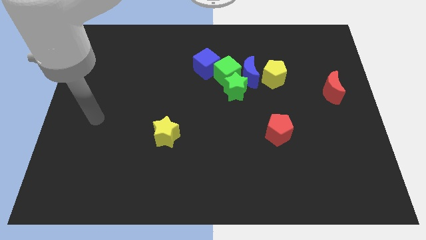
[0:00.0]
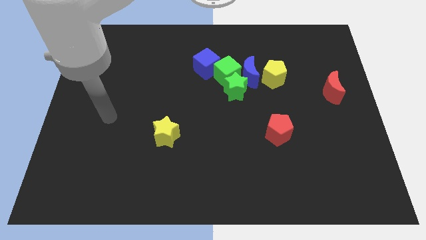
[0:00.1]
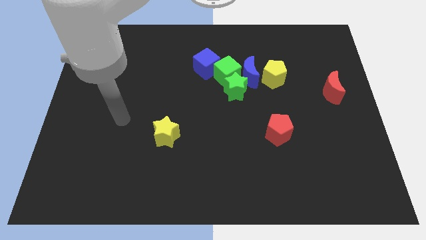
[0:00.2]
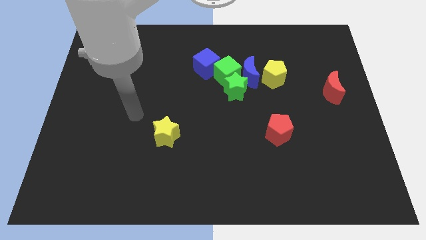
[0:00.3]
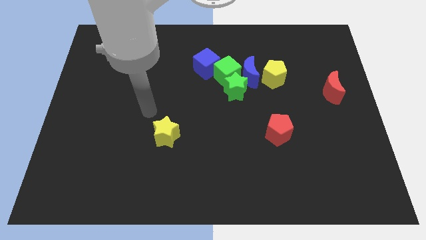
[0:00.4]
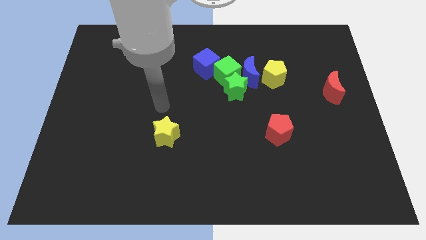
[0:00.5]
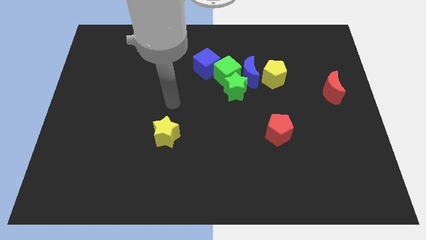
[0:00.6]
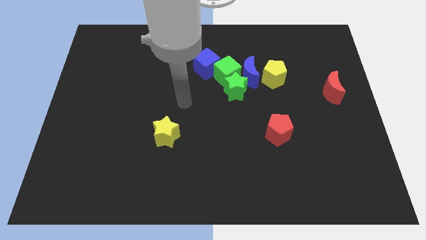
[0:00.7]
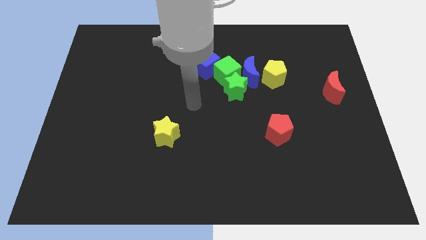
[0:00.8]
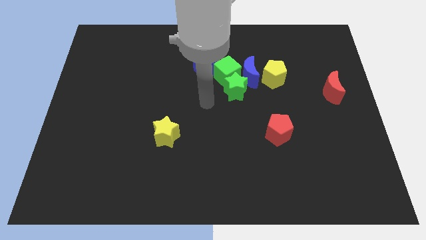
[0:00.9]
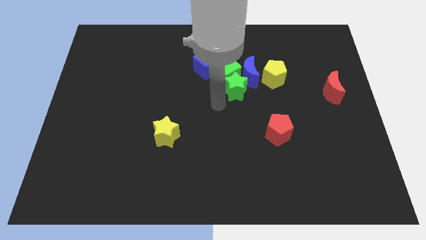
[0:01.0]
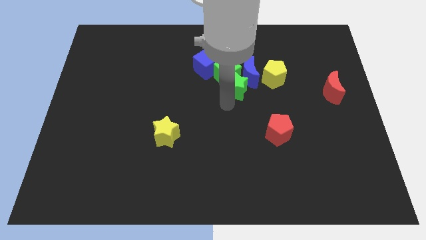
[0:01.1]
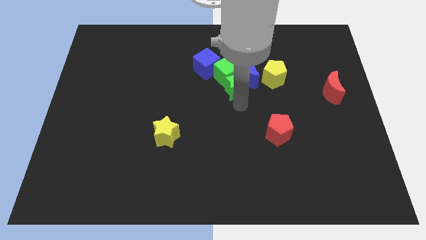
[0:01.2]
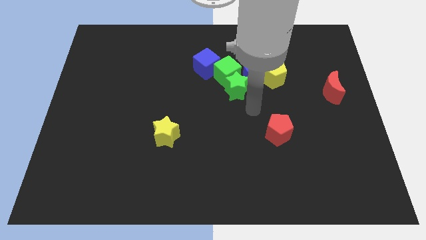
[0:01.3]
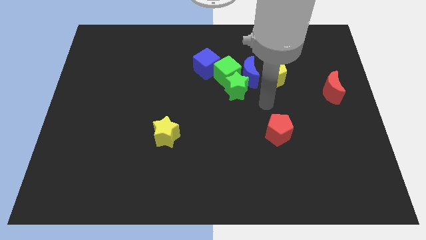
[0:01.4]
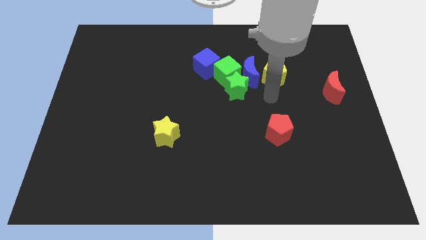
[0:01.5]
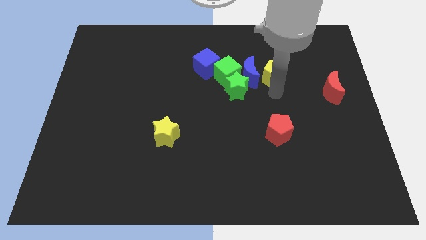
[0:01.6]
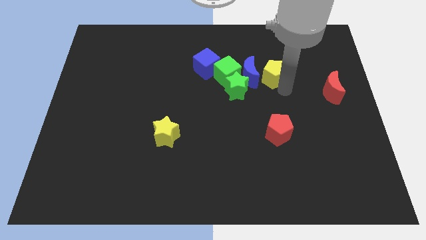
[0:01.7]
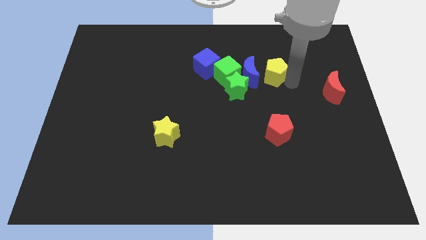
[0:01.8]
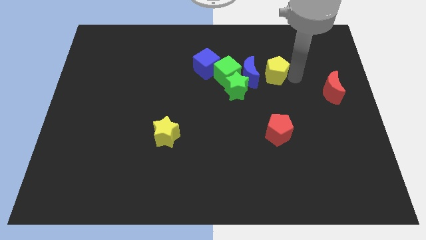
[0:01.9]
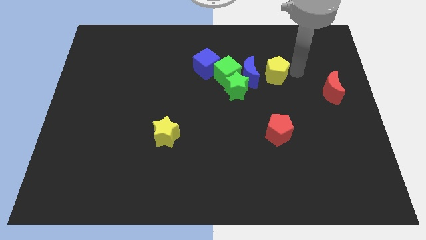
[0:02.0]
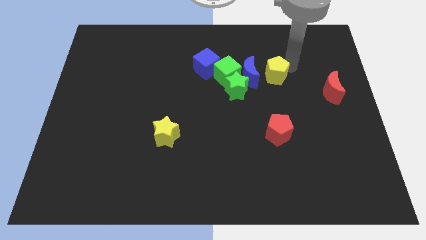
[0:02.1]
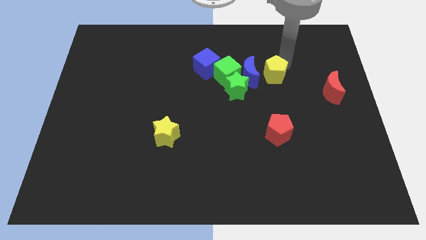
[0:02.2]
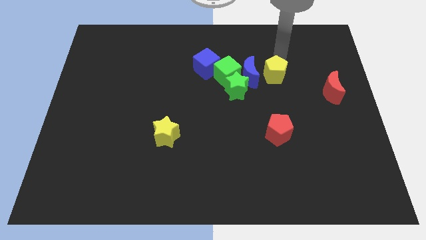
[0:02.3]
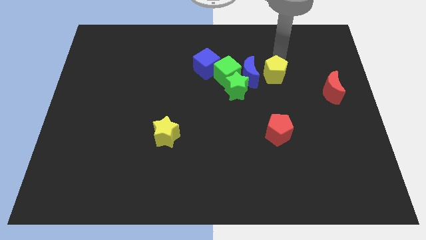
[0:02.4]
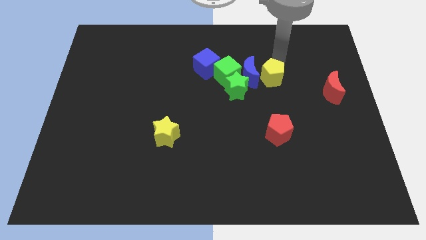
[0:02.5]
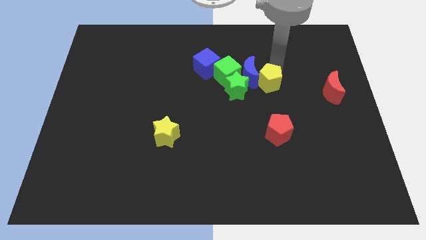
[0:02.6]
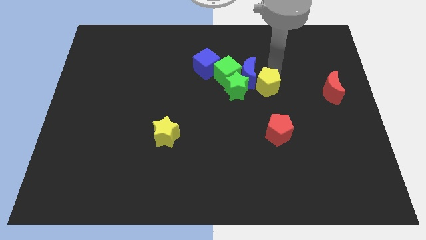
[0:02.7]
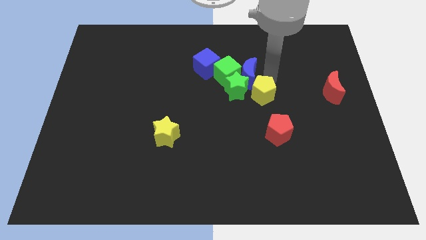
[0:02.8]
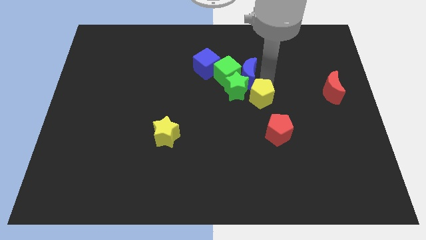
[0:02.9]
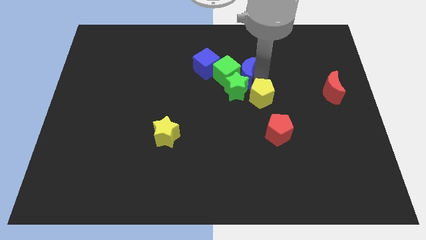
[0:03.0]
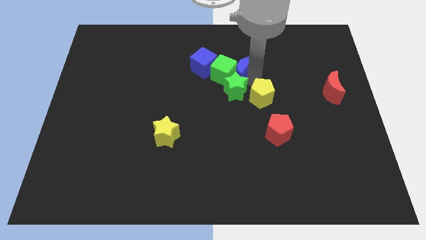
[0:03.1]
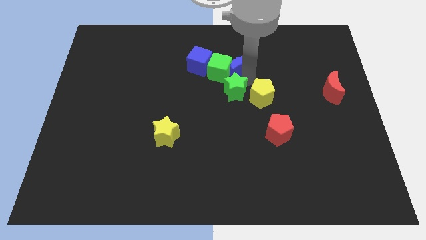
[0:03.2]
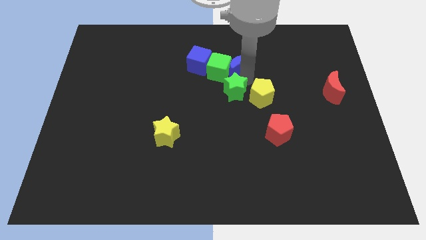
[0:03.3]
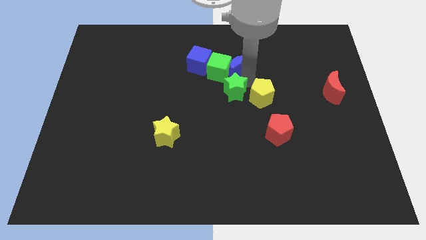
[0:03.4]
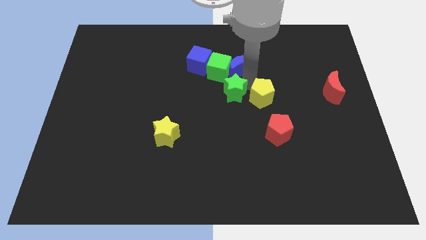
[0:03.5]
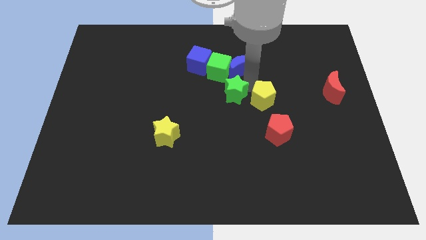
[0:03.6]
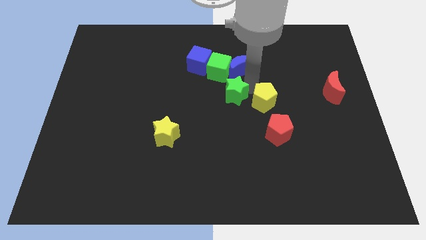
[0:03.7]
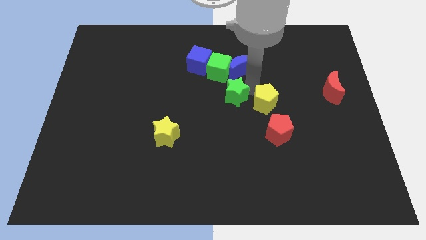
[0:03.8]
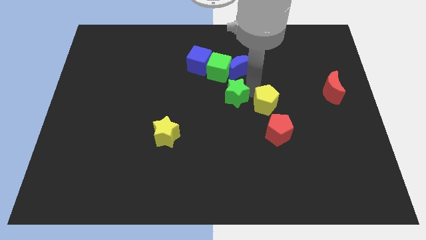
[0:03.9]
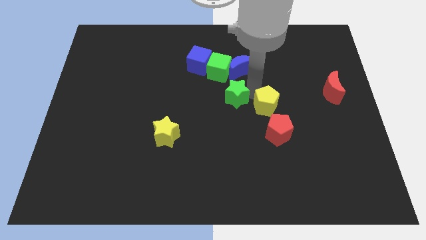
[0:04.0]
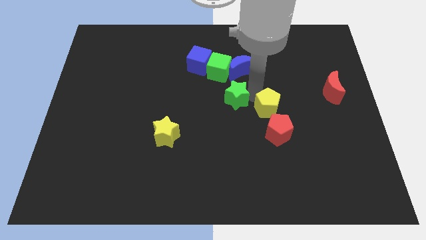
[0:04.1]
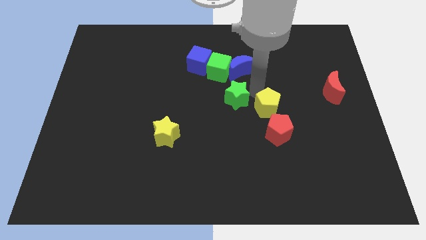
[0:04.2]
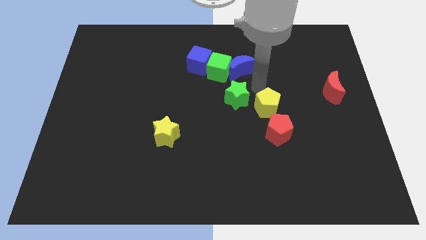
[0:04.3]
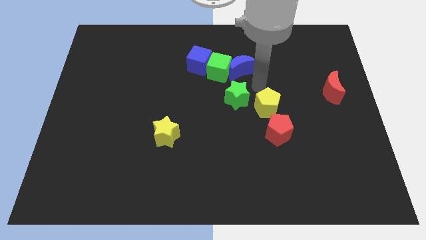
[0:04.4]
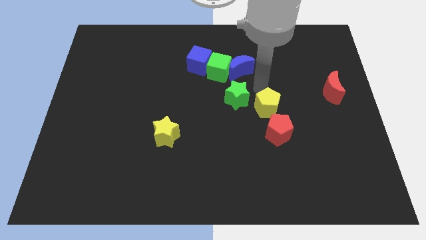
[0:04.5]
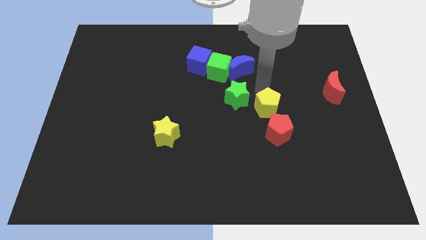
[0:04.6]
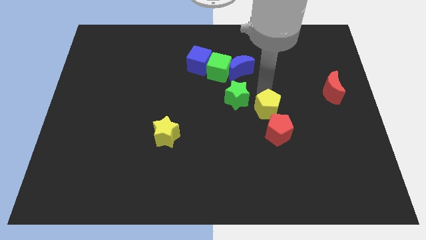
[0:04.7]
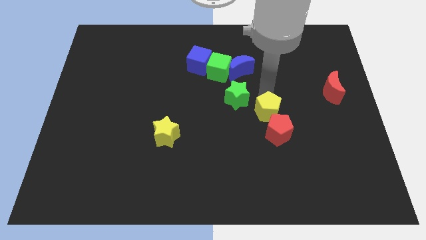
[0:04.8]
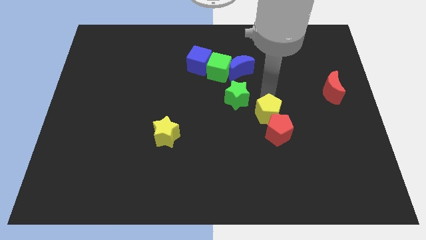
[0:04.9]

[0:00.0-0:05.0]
slide the yellow pentagon towards the red pentagon

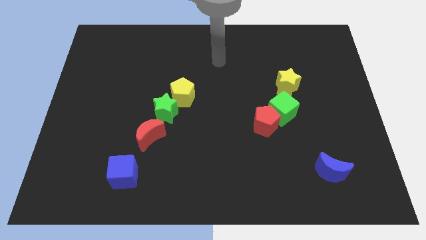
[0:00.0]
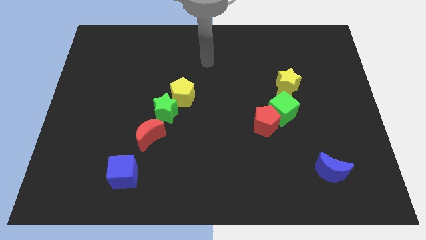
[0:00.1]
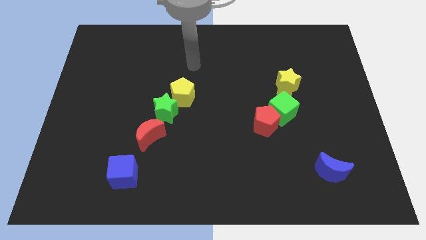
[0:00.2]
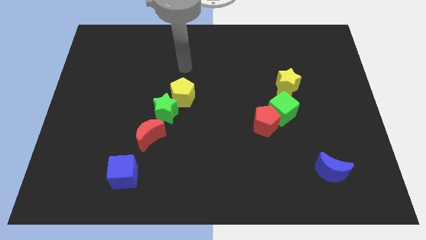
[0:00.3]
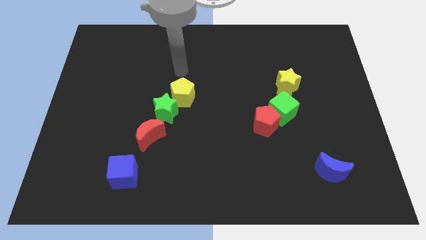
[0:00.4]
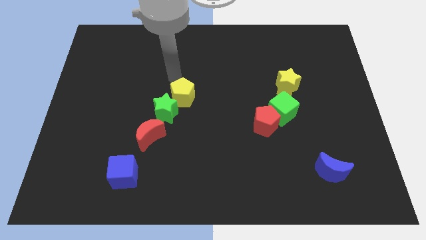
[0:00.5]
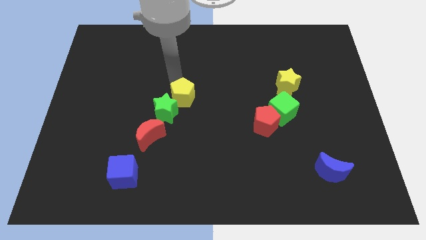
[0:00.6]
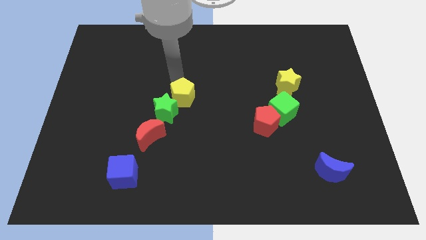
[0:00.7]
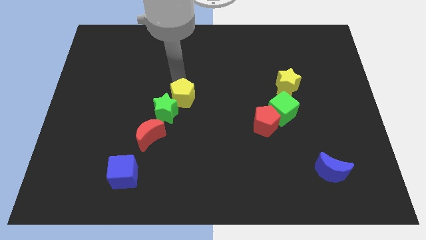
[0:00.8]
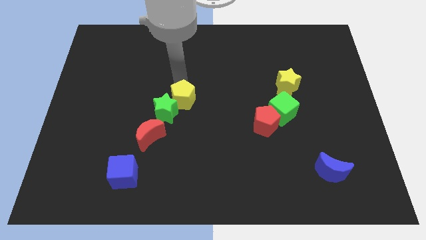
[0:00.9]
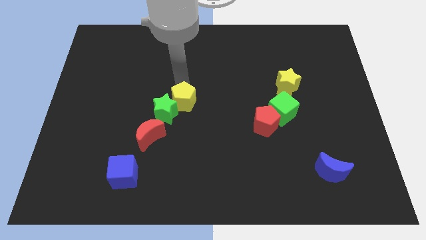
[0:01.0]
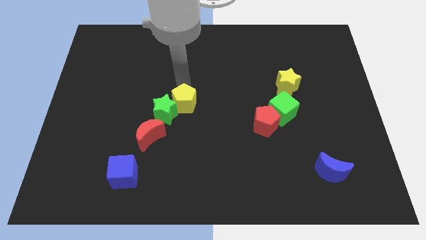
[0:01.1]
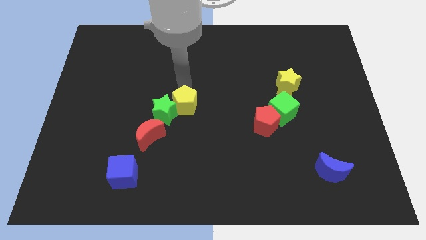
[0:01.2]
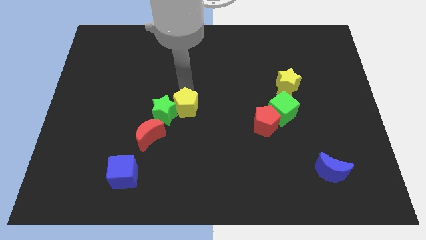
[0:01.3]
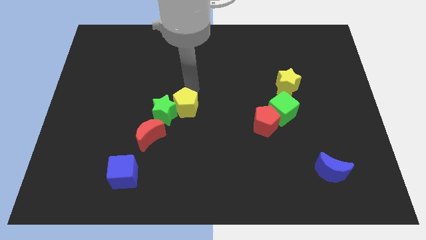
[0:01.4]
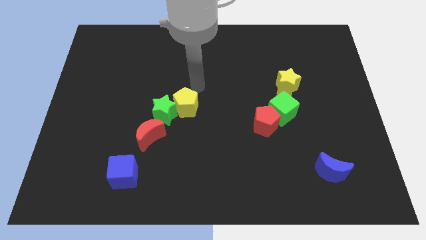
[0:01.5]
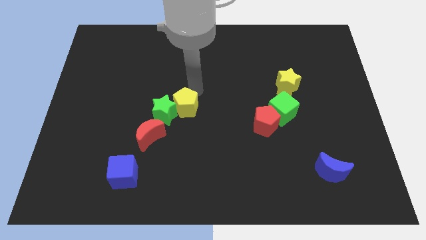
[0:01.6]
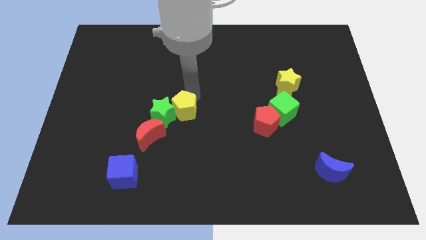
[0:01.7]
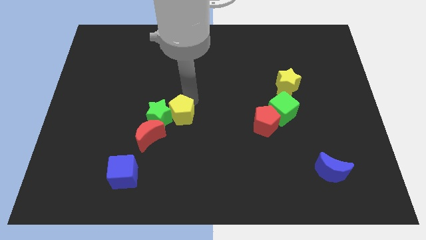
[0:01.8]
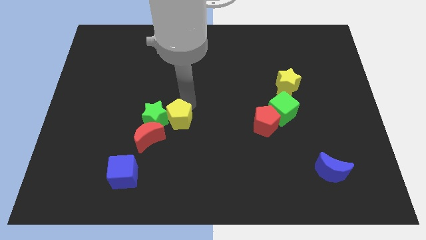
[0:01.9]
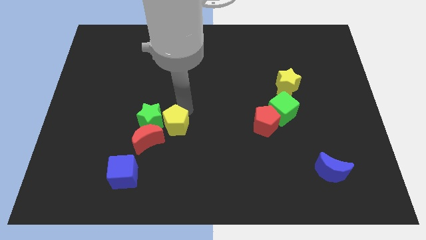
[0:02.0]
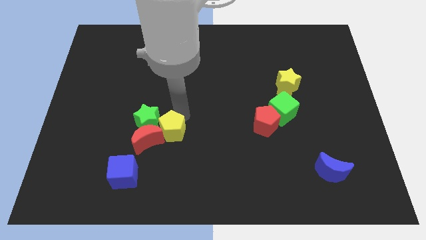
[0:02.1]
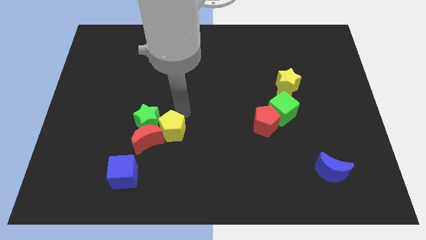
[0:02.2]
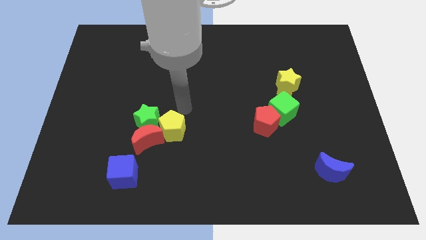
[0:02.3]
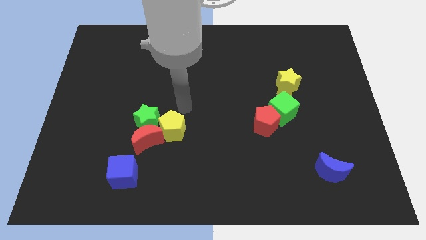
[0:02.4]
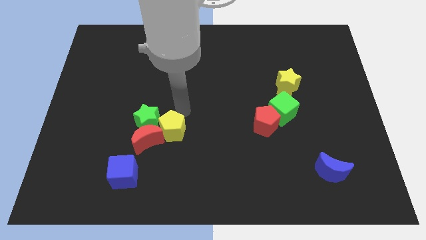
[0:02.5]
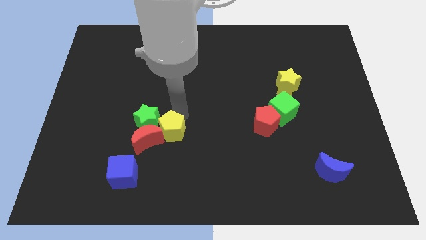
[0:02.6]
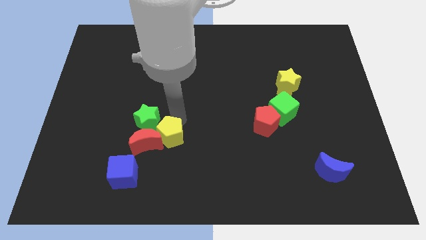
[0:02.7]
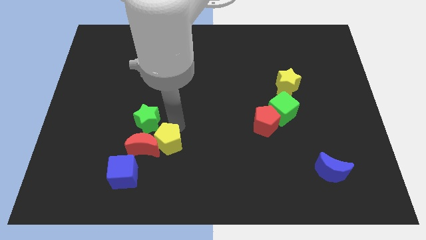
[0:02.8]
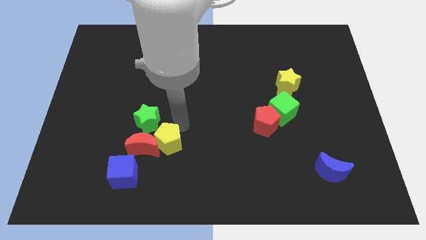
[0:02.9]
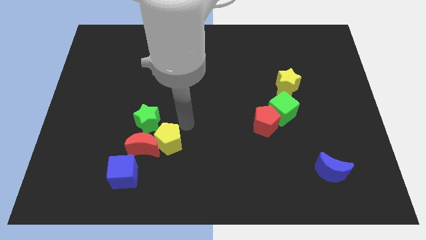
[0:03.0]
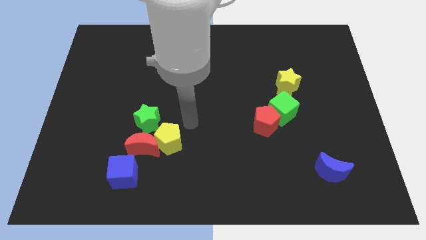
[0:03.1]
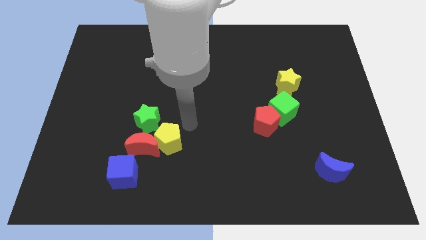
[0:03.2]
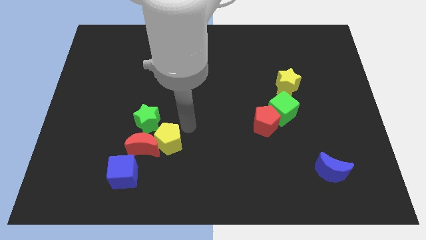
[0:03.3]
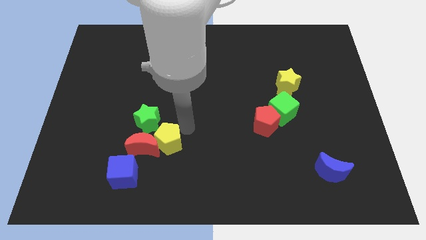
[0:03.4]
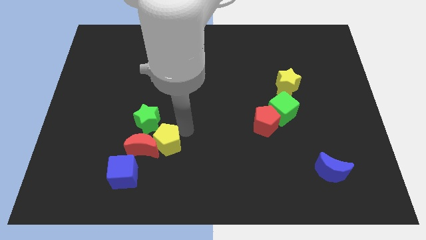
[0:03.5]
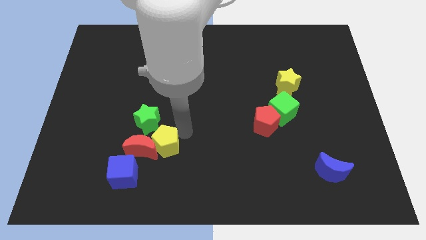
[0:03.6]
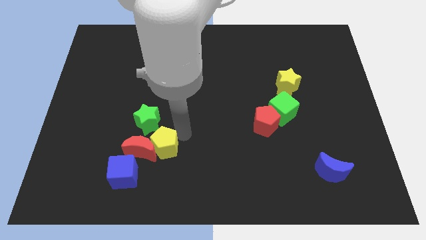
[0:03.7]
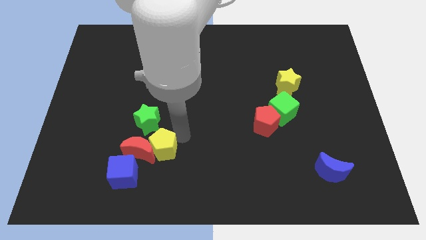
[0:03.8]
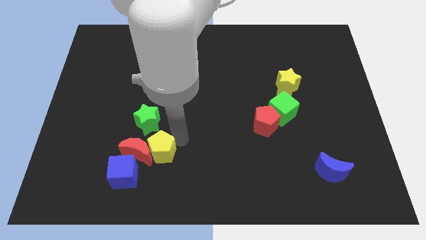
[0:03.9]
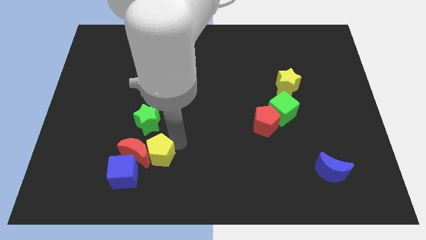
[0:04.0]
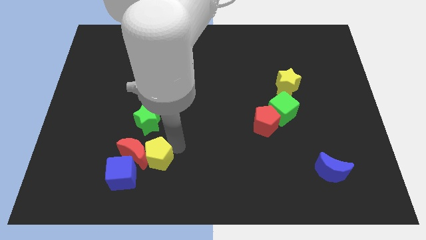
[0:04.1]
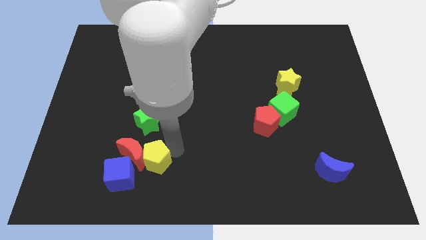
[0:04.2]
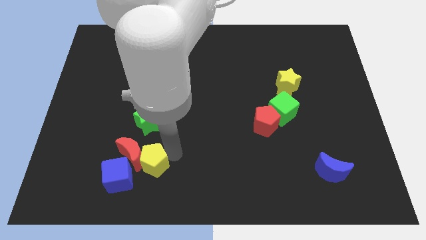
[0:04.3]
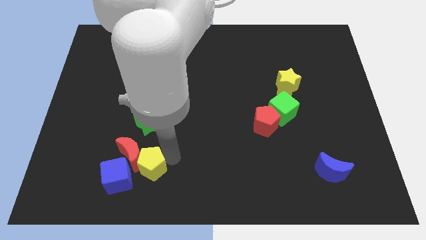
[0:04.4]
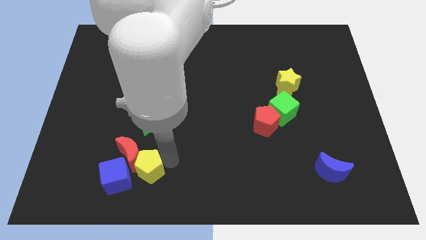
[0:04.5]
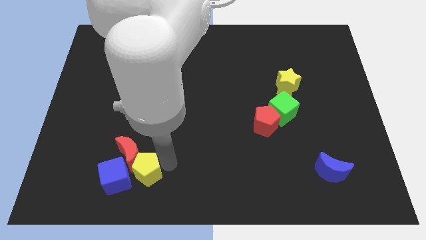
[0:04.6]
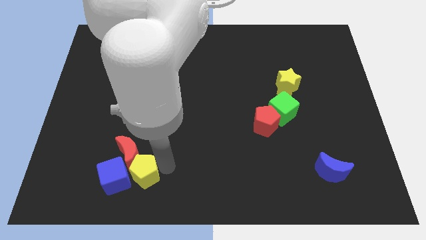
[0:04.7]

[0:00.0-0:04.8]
move the yellow pentagon to the blue cube
